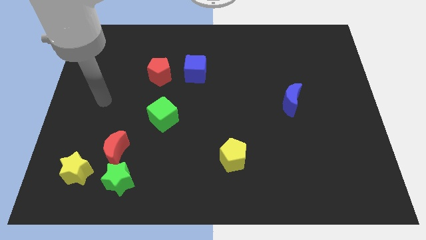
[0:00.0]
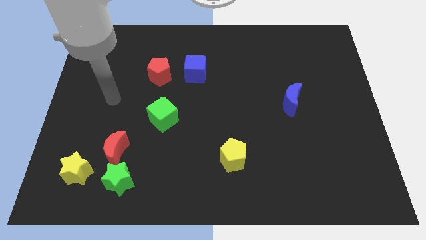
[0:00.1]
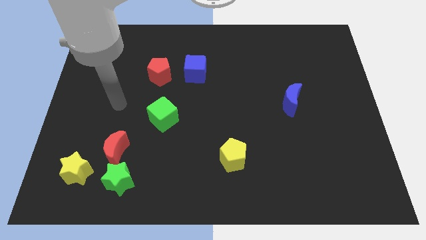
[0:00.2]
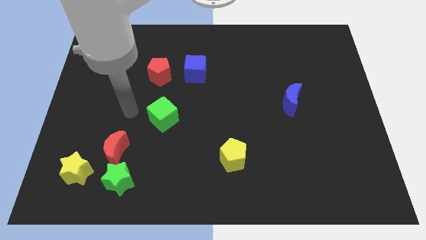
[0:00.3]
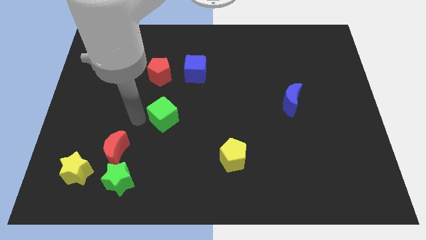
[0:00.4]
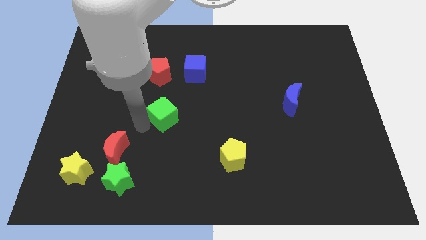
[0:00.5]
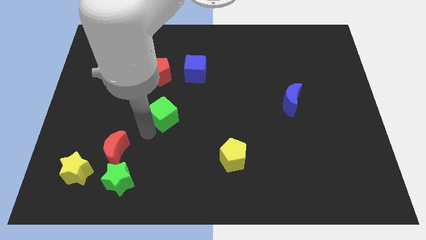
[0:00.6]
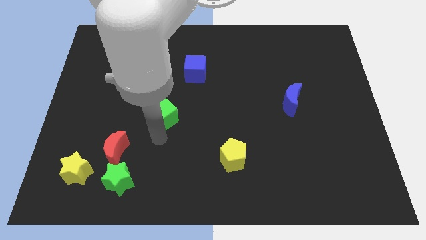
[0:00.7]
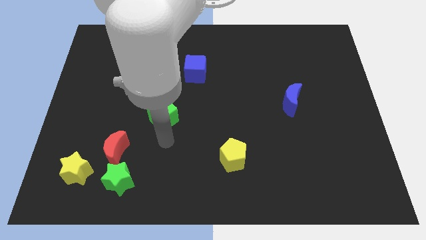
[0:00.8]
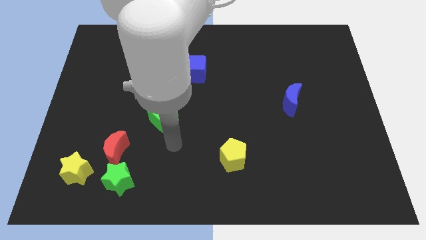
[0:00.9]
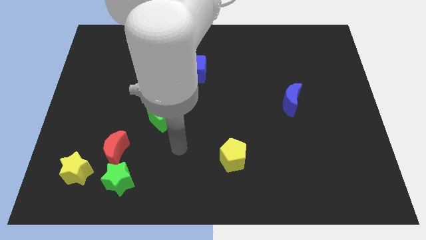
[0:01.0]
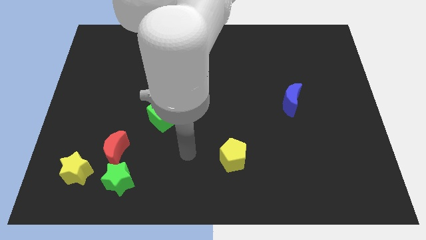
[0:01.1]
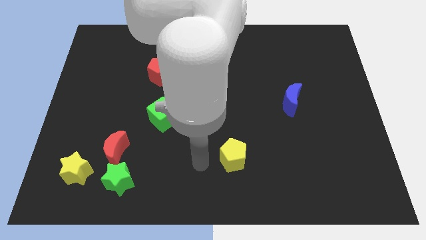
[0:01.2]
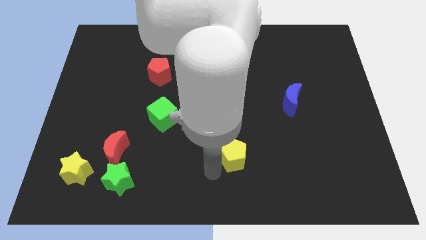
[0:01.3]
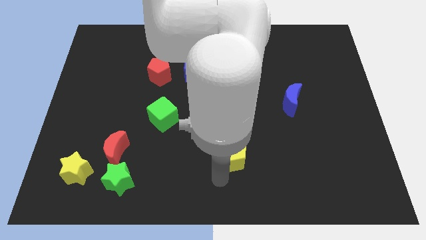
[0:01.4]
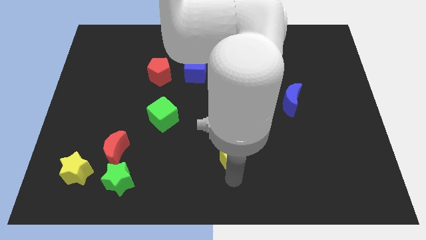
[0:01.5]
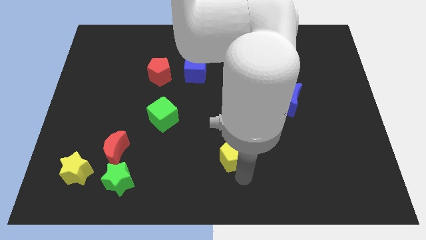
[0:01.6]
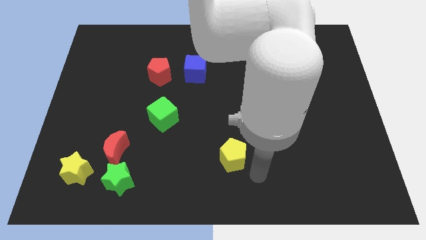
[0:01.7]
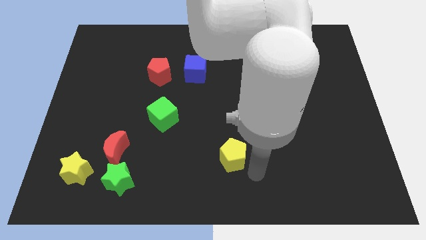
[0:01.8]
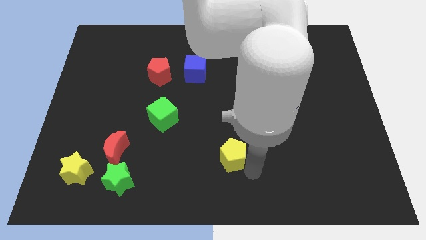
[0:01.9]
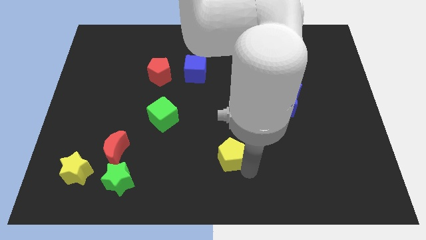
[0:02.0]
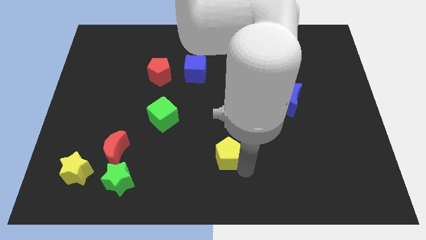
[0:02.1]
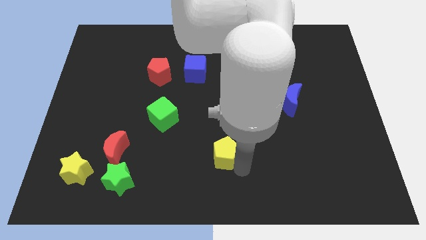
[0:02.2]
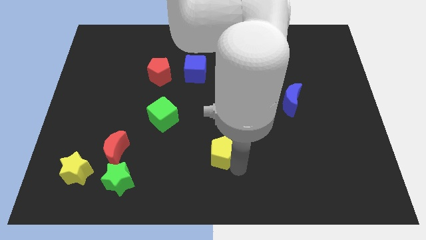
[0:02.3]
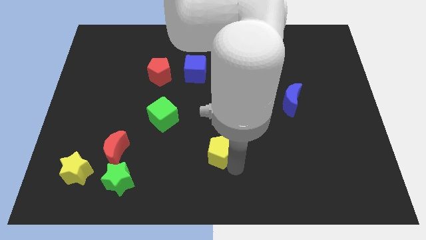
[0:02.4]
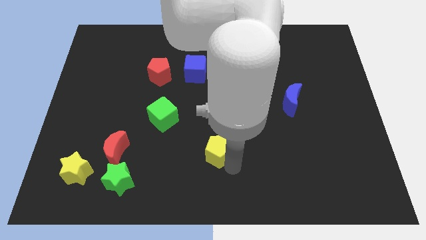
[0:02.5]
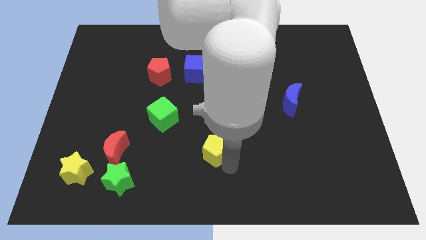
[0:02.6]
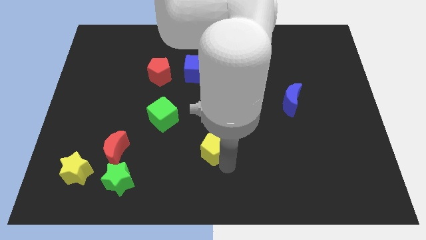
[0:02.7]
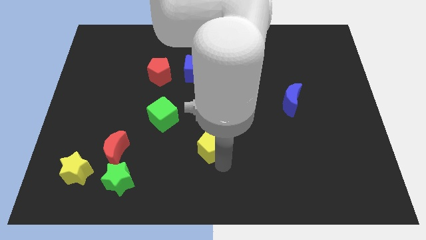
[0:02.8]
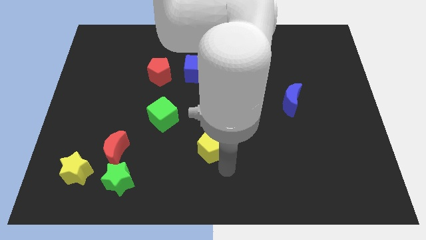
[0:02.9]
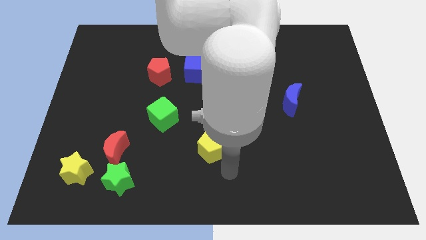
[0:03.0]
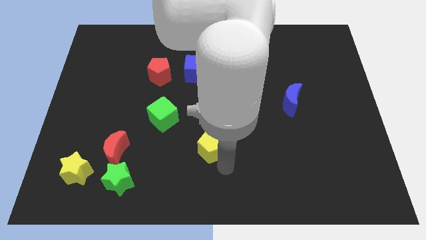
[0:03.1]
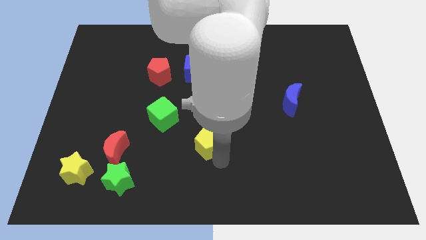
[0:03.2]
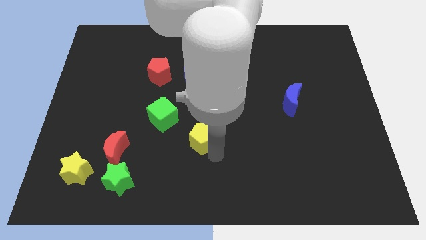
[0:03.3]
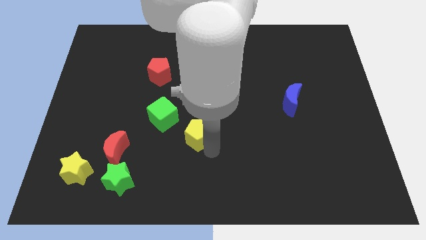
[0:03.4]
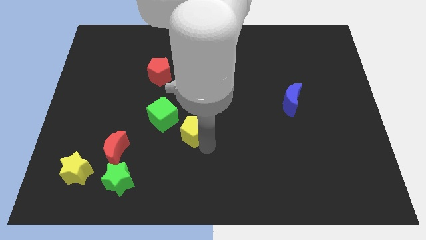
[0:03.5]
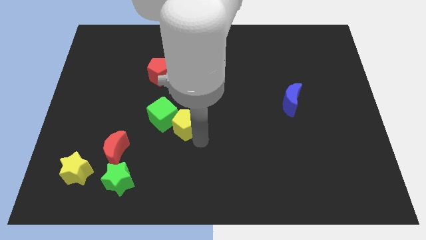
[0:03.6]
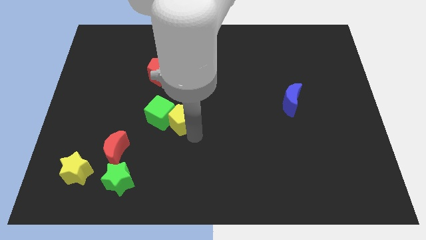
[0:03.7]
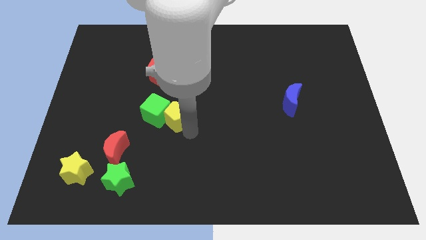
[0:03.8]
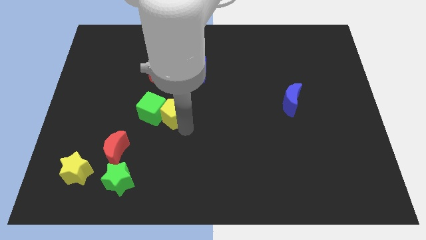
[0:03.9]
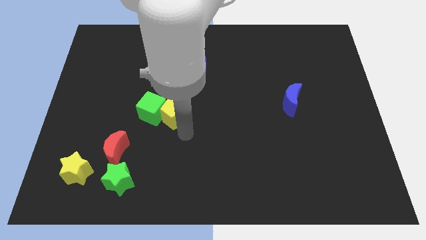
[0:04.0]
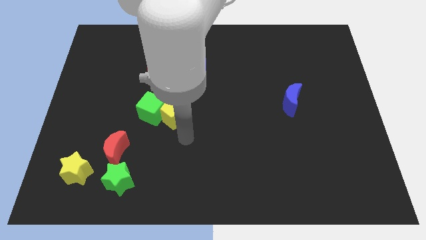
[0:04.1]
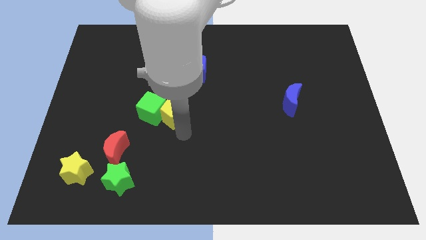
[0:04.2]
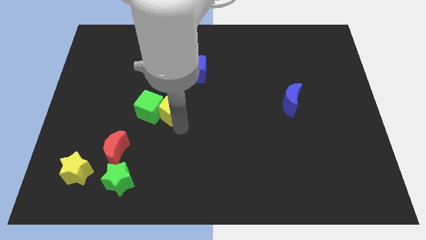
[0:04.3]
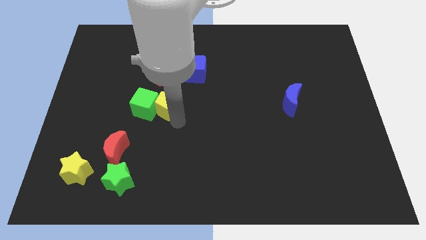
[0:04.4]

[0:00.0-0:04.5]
move the yellow pentagon upwards and then to the left

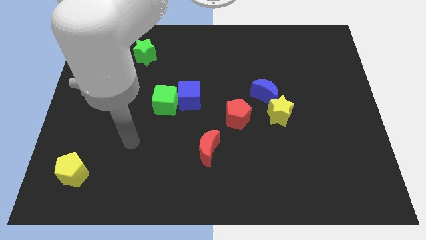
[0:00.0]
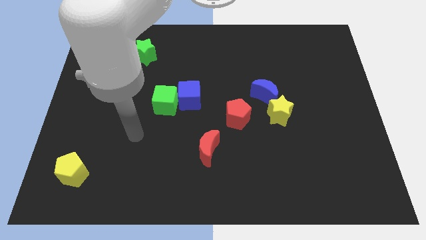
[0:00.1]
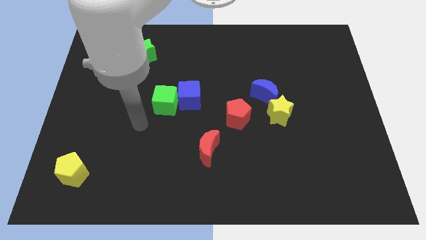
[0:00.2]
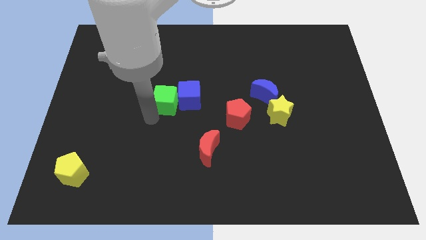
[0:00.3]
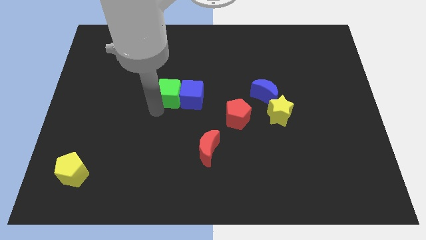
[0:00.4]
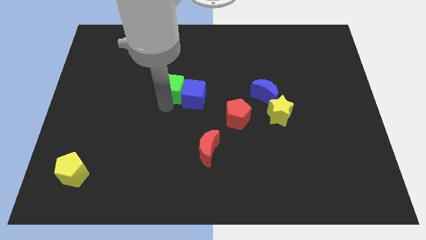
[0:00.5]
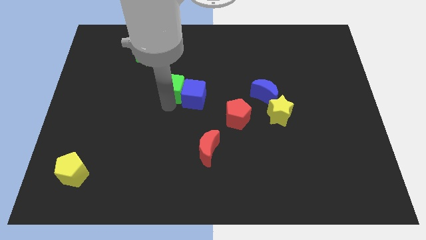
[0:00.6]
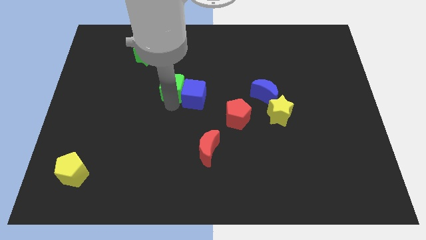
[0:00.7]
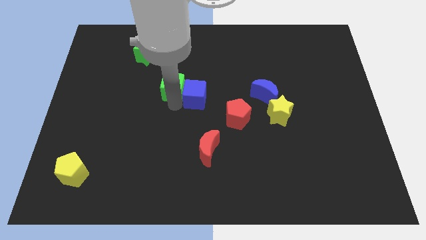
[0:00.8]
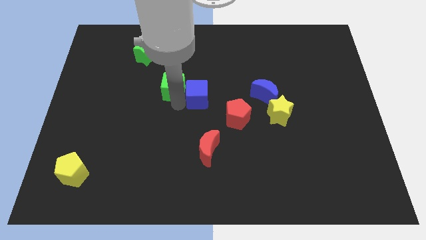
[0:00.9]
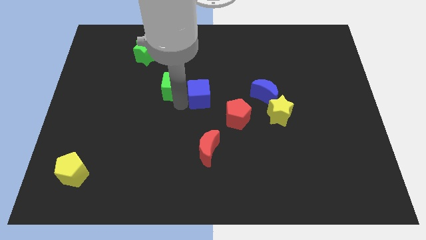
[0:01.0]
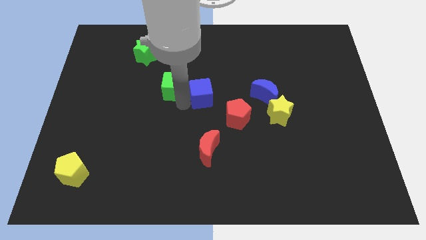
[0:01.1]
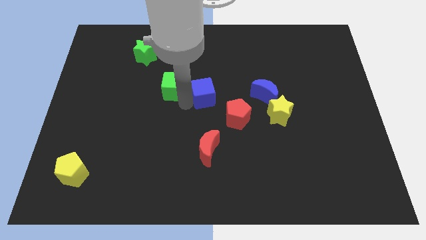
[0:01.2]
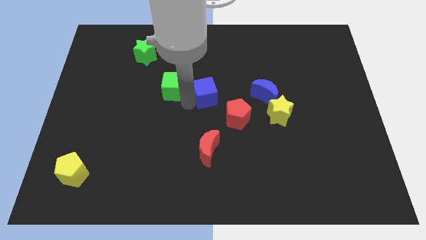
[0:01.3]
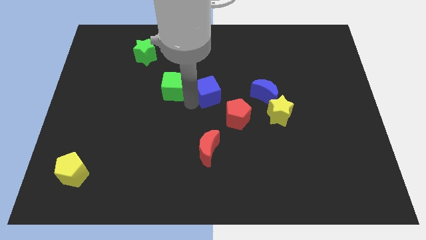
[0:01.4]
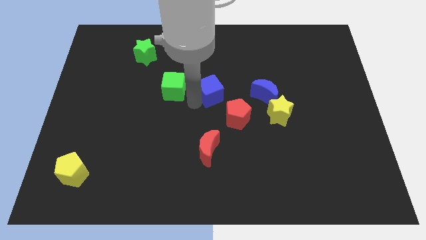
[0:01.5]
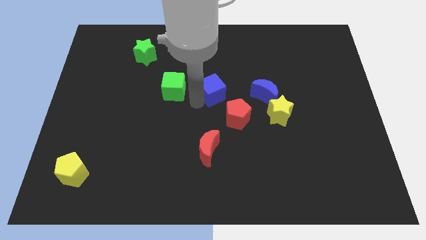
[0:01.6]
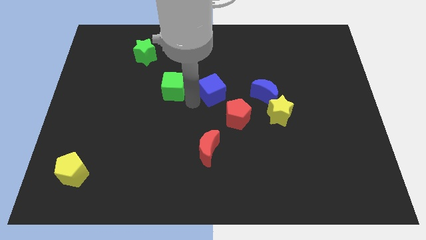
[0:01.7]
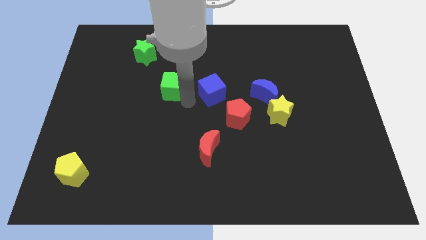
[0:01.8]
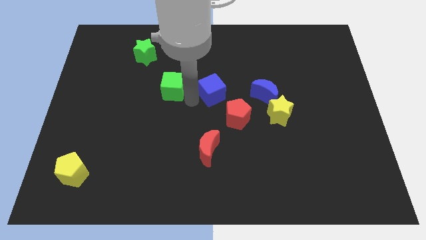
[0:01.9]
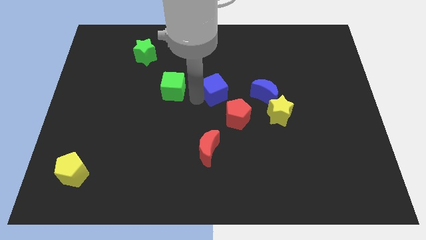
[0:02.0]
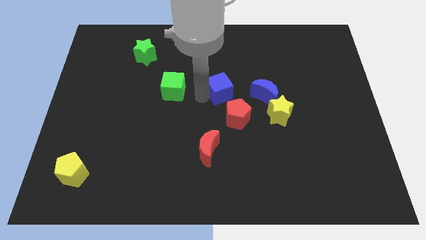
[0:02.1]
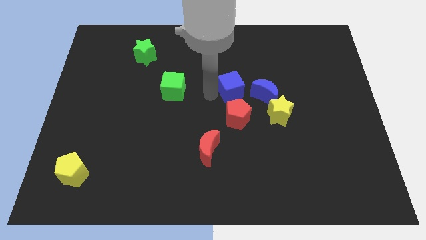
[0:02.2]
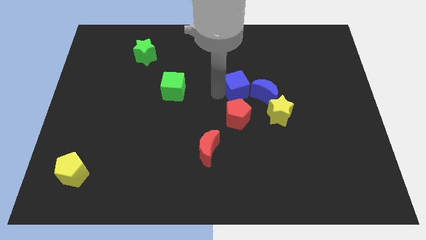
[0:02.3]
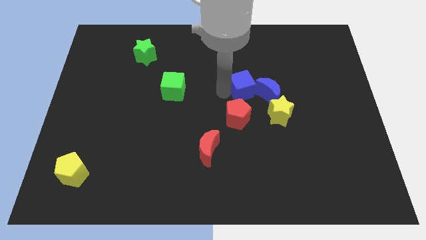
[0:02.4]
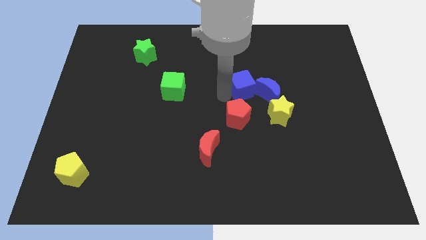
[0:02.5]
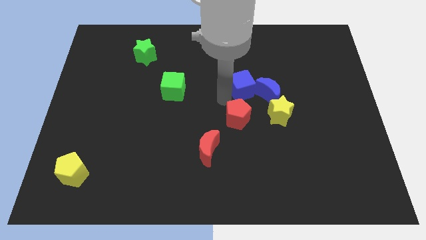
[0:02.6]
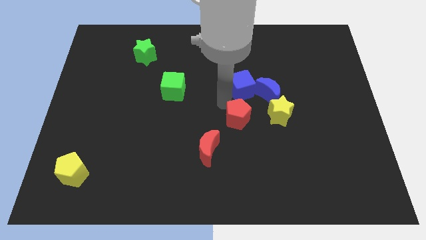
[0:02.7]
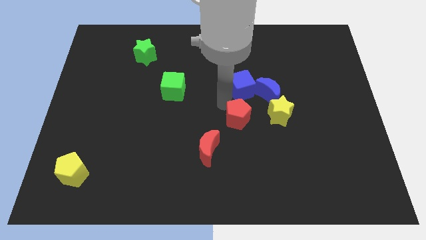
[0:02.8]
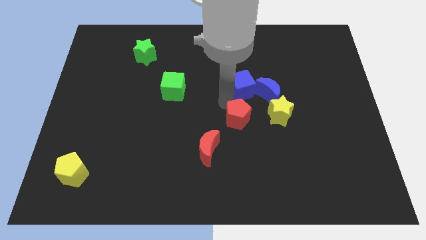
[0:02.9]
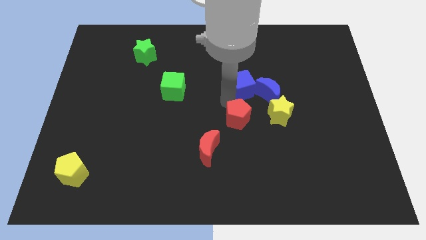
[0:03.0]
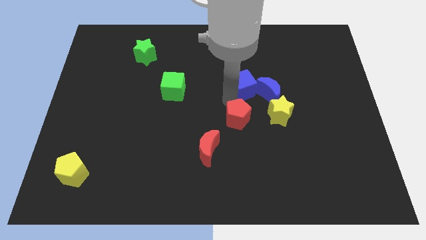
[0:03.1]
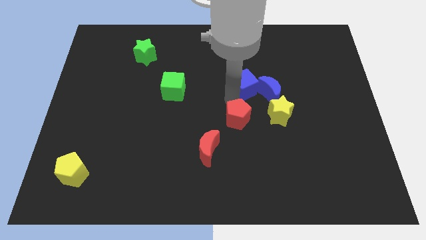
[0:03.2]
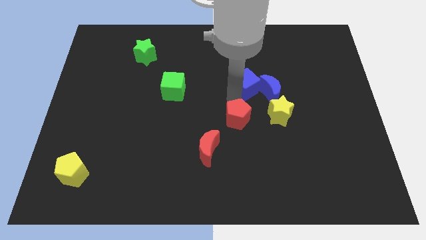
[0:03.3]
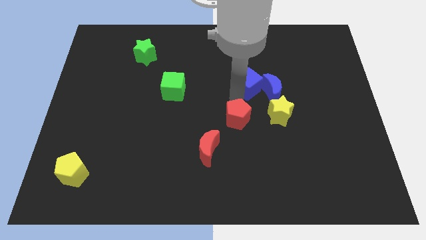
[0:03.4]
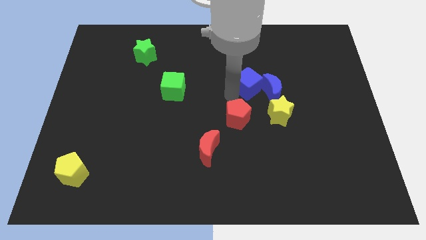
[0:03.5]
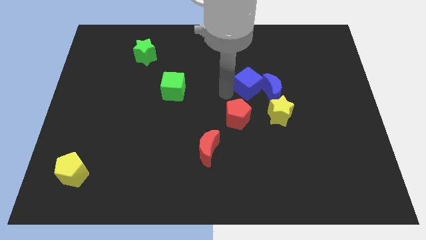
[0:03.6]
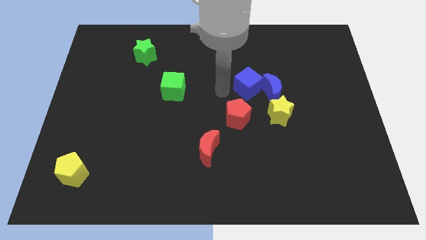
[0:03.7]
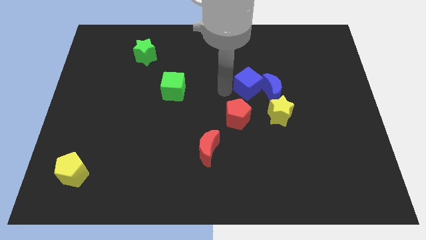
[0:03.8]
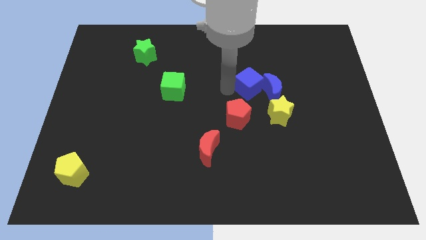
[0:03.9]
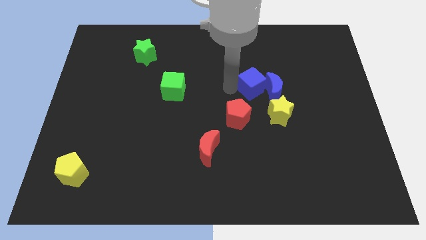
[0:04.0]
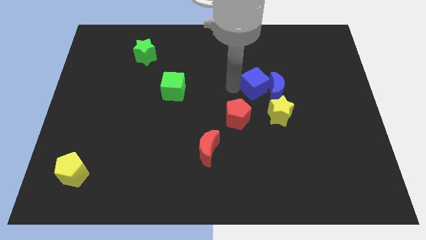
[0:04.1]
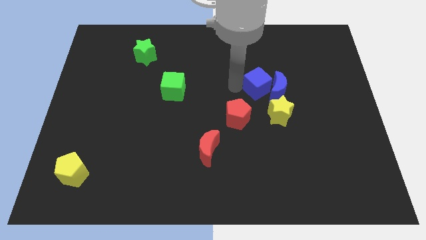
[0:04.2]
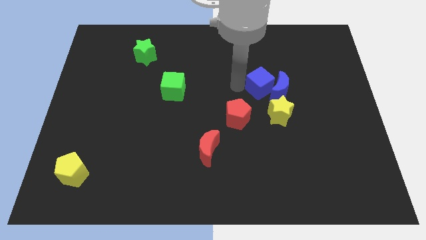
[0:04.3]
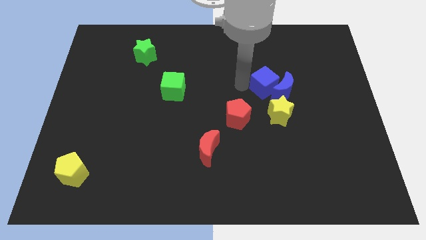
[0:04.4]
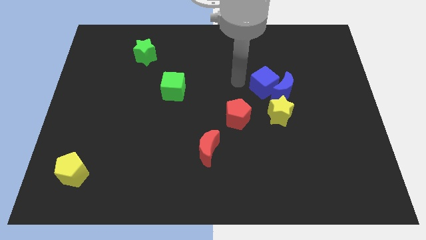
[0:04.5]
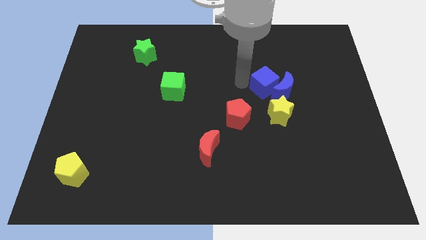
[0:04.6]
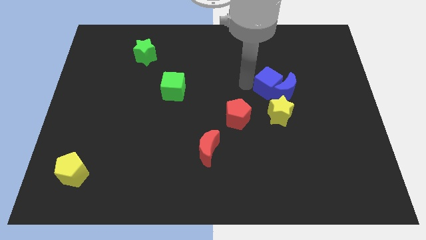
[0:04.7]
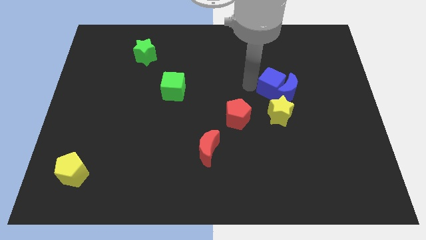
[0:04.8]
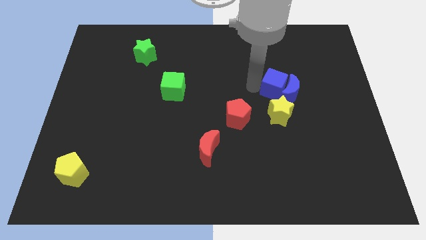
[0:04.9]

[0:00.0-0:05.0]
push the blue cube to the right
